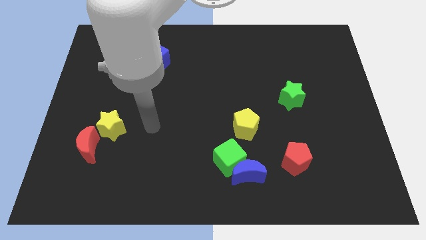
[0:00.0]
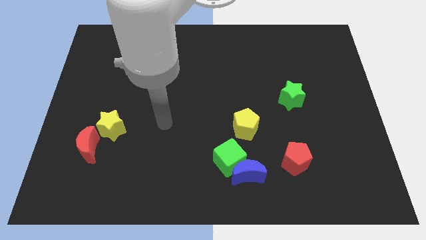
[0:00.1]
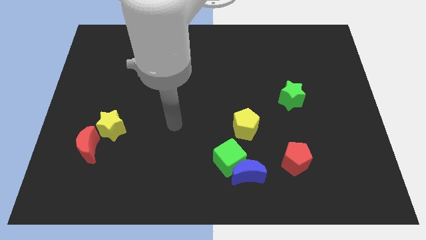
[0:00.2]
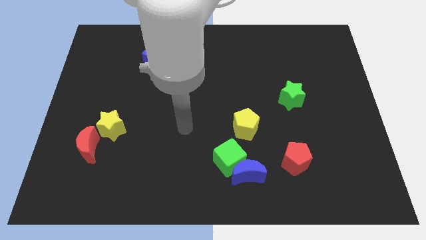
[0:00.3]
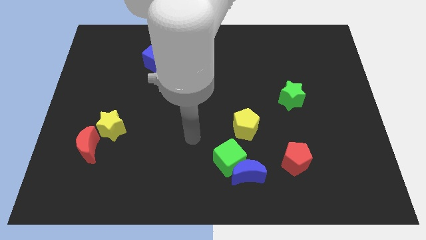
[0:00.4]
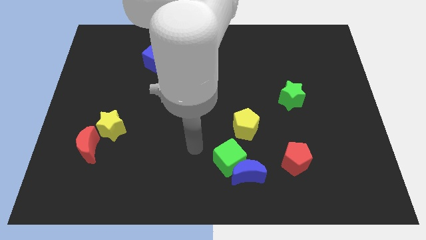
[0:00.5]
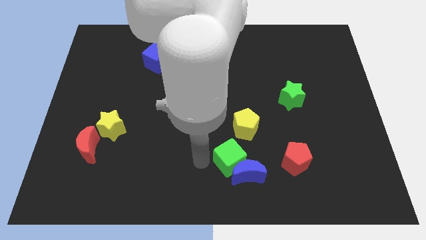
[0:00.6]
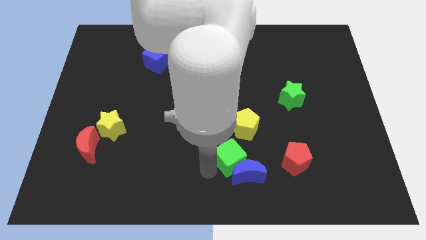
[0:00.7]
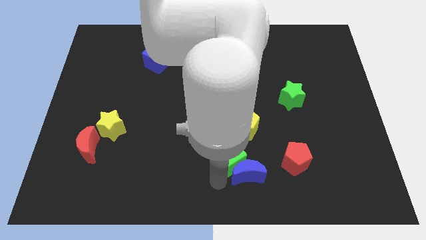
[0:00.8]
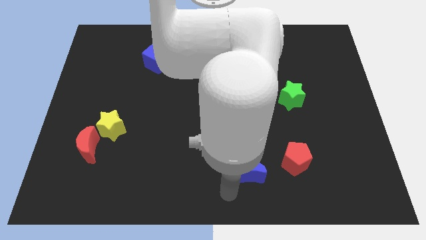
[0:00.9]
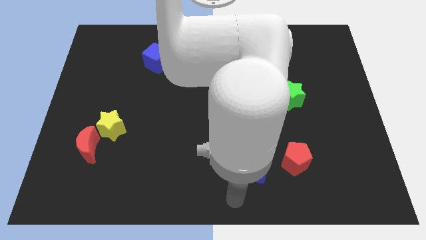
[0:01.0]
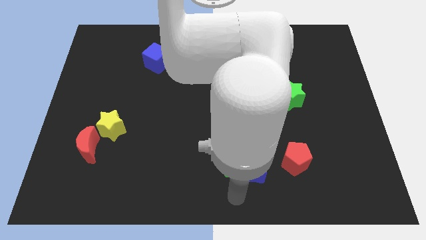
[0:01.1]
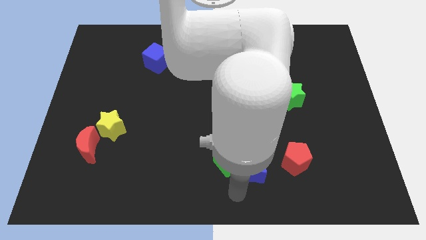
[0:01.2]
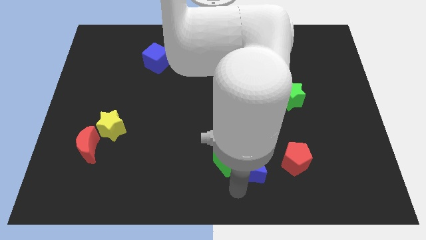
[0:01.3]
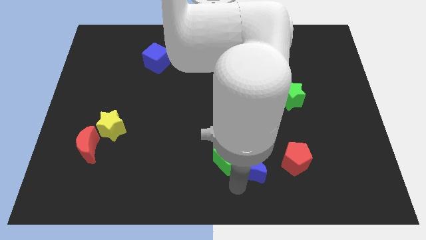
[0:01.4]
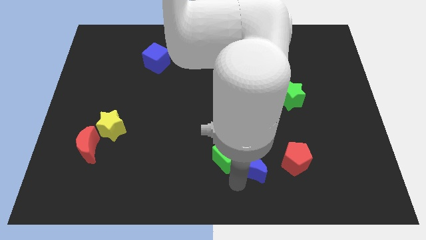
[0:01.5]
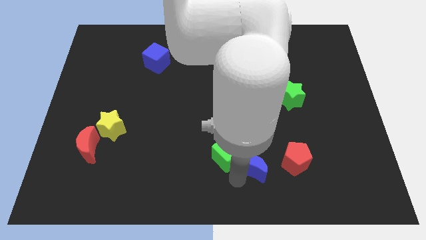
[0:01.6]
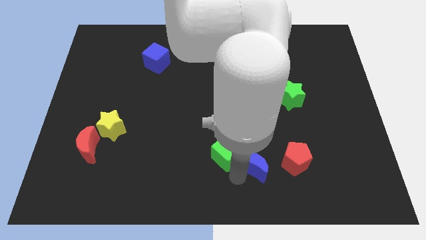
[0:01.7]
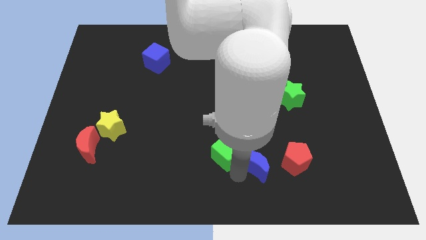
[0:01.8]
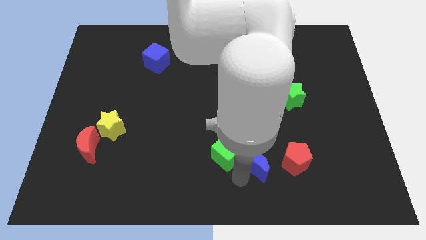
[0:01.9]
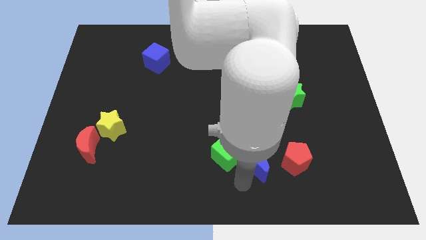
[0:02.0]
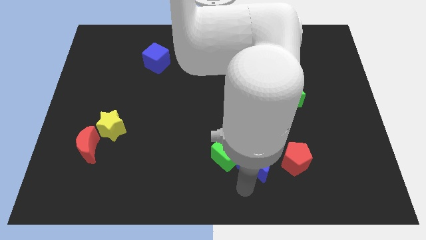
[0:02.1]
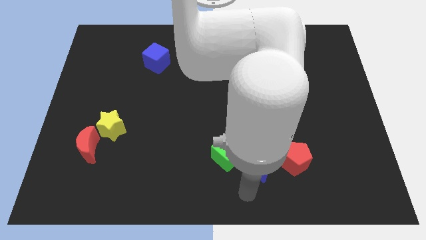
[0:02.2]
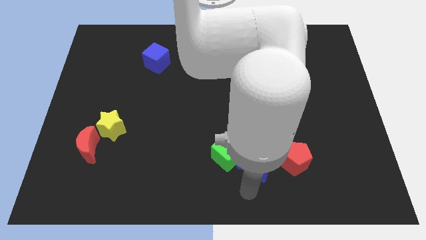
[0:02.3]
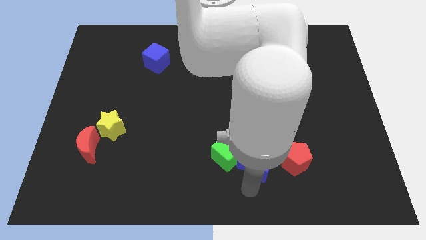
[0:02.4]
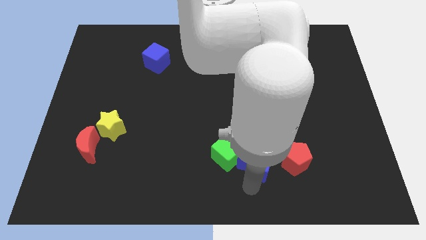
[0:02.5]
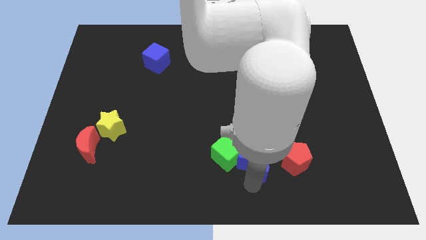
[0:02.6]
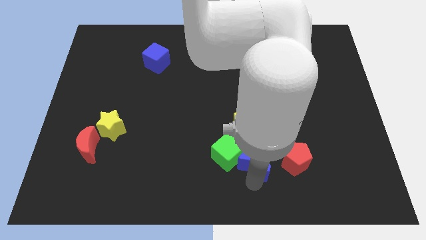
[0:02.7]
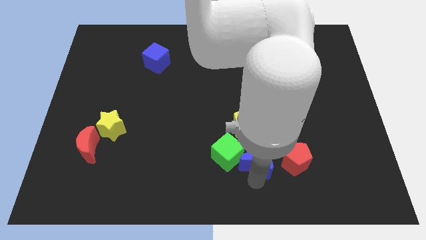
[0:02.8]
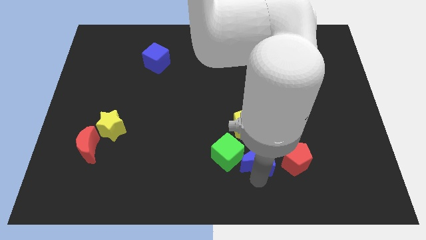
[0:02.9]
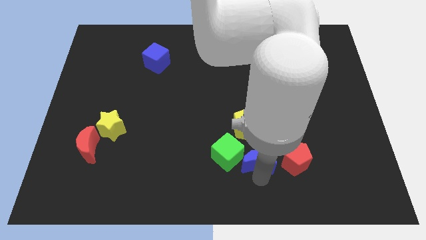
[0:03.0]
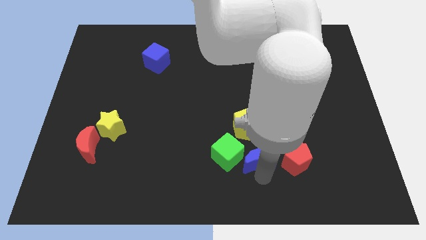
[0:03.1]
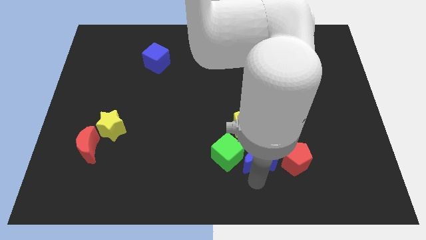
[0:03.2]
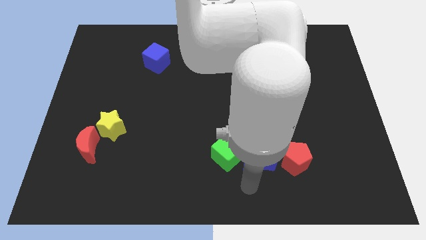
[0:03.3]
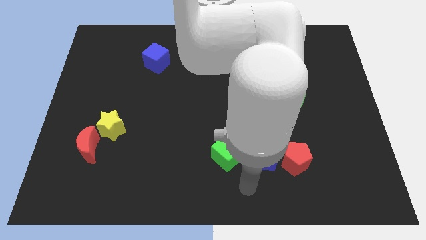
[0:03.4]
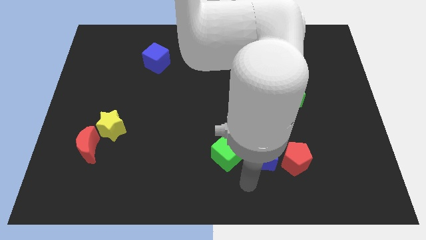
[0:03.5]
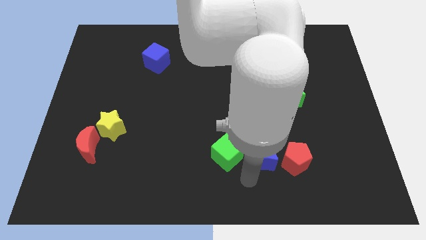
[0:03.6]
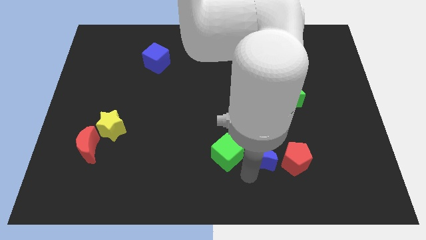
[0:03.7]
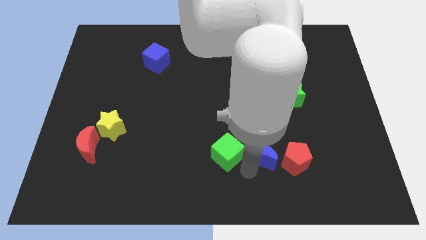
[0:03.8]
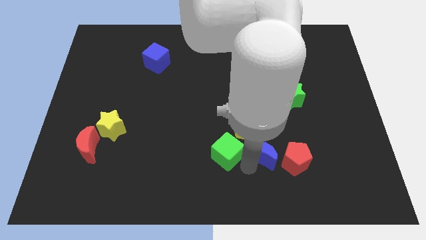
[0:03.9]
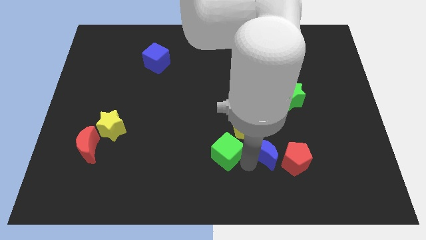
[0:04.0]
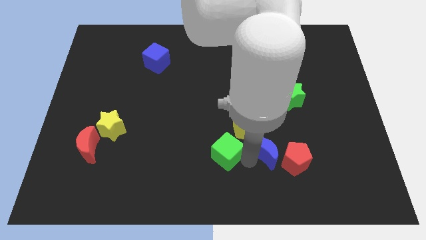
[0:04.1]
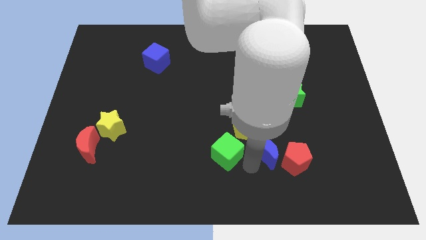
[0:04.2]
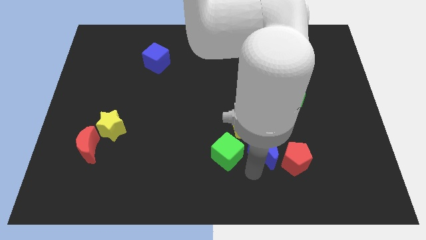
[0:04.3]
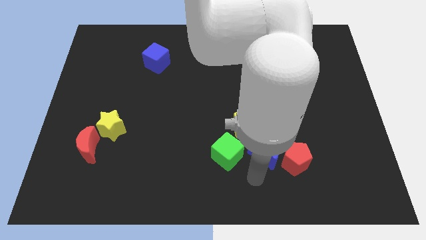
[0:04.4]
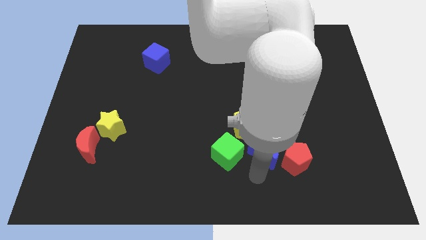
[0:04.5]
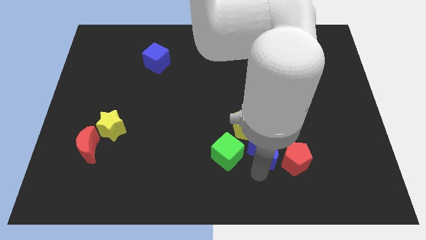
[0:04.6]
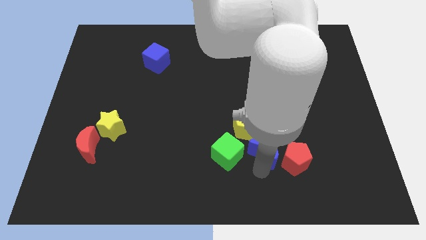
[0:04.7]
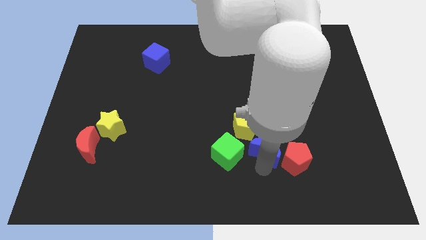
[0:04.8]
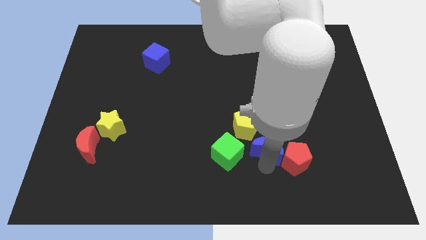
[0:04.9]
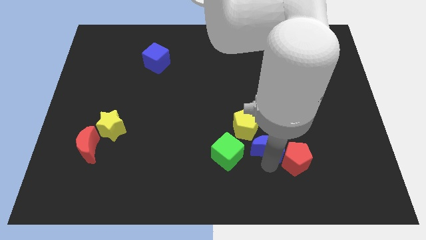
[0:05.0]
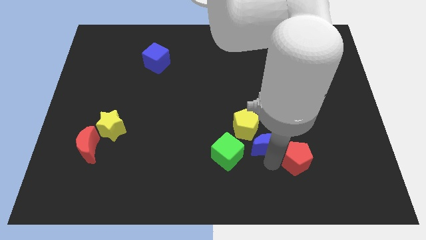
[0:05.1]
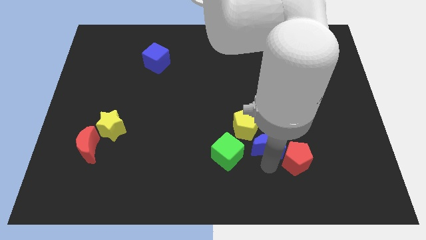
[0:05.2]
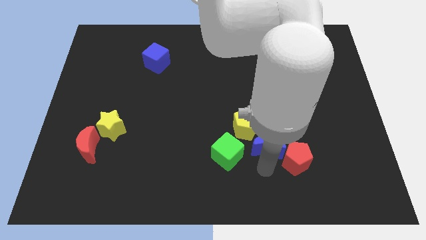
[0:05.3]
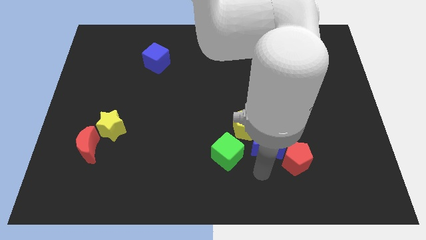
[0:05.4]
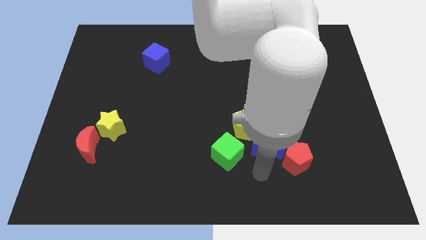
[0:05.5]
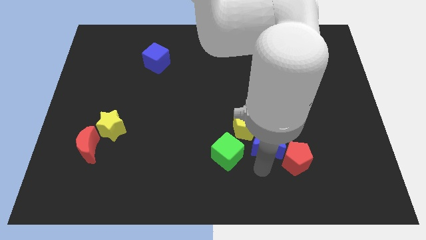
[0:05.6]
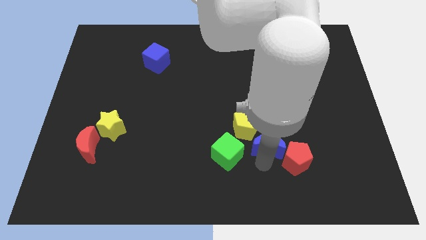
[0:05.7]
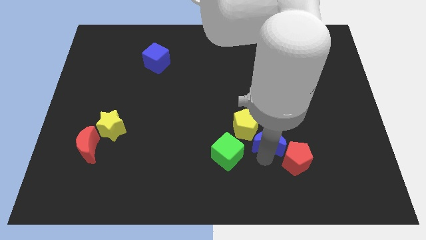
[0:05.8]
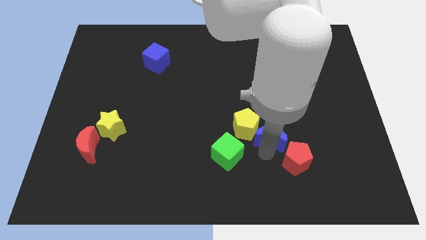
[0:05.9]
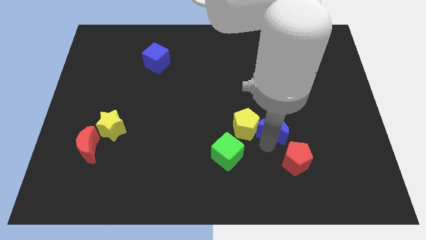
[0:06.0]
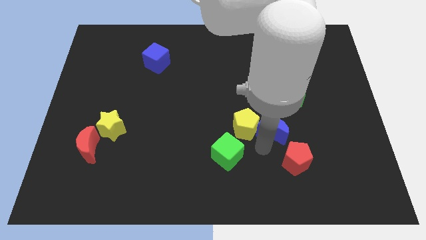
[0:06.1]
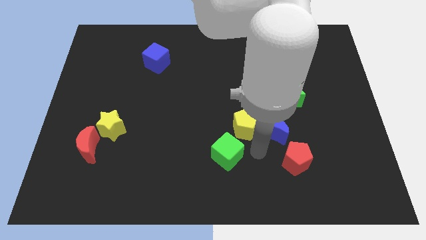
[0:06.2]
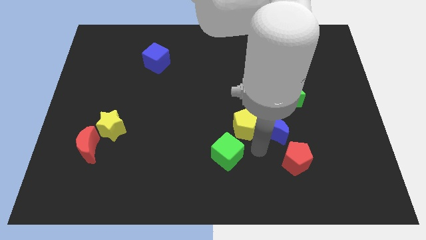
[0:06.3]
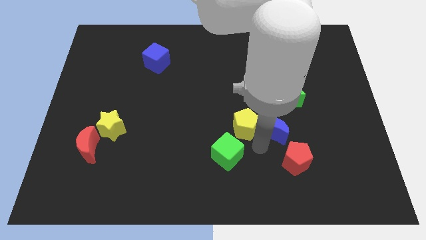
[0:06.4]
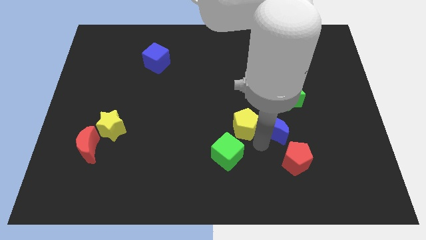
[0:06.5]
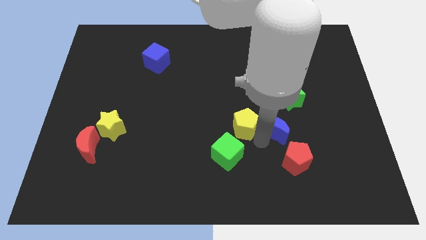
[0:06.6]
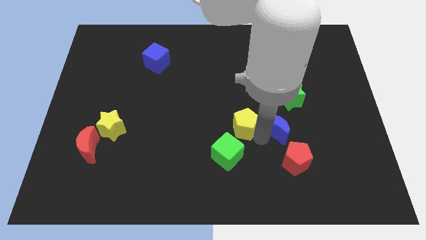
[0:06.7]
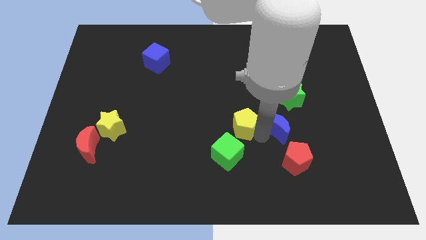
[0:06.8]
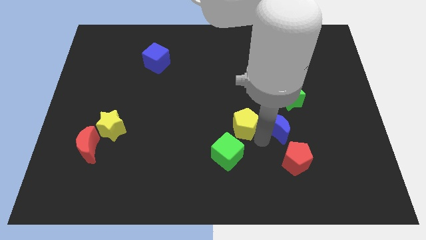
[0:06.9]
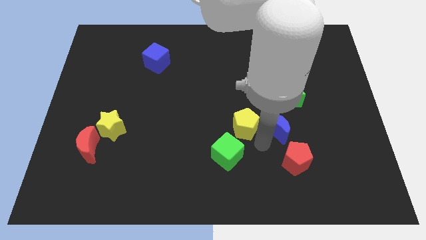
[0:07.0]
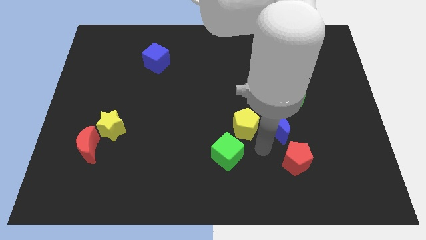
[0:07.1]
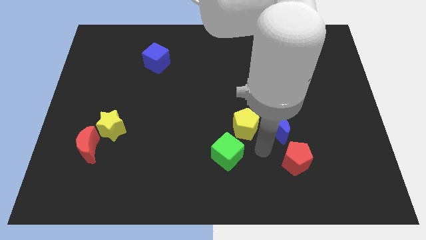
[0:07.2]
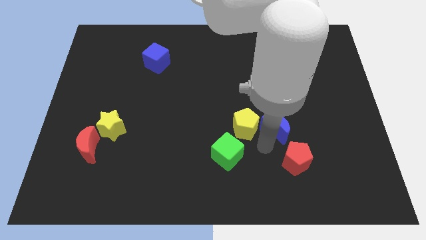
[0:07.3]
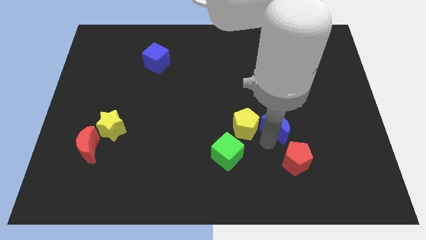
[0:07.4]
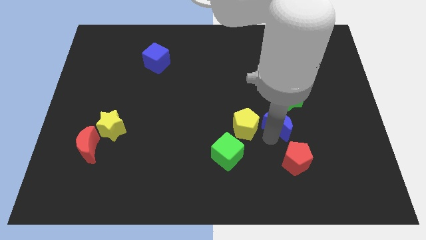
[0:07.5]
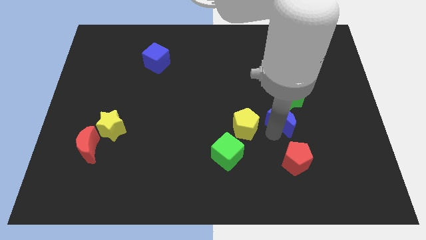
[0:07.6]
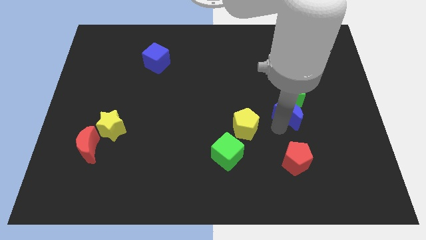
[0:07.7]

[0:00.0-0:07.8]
put the blue moon next to the green star
